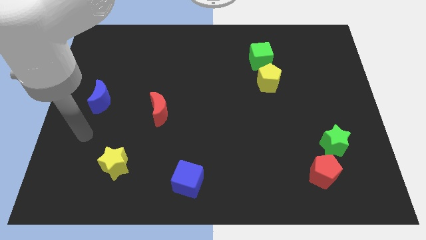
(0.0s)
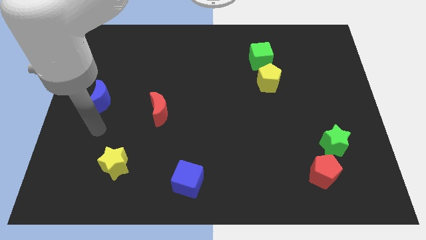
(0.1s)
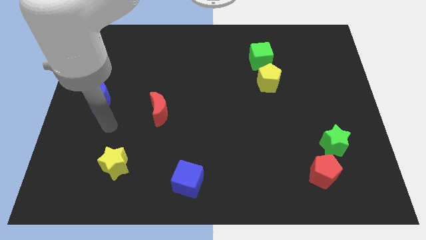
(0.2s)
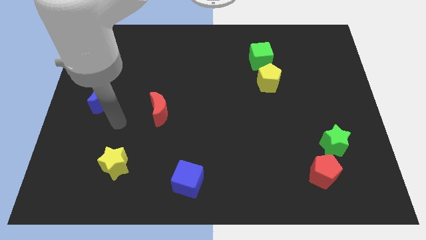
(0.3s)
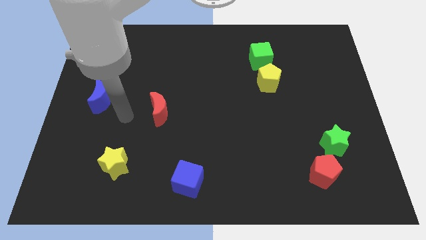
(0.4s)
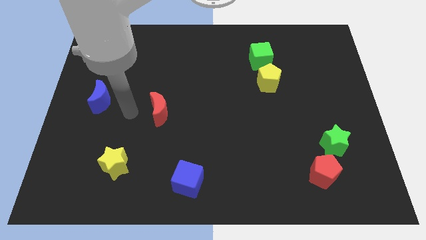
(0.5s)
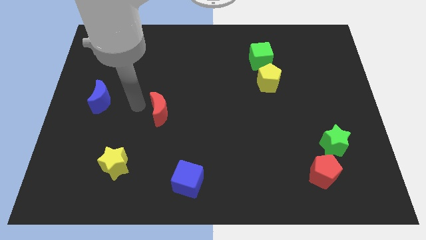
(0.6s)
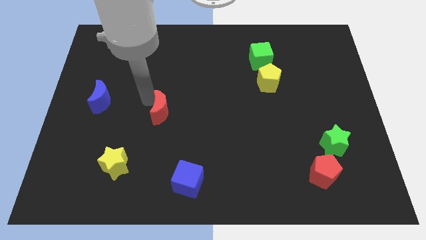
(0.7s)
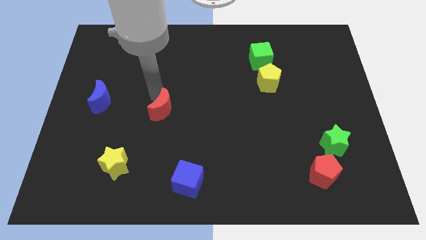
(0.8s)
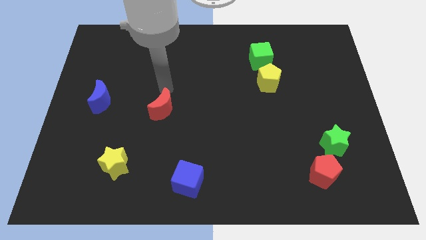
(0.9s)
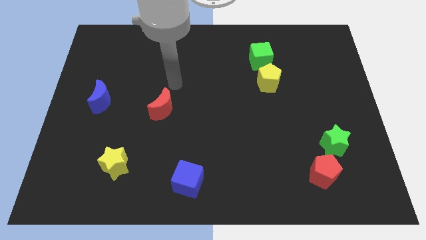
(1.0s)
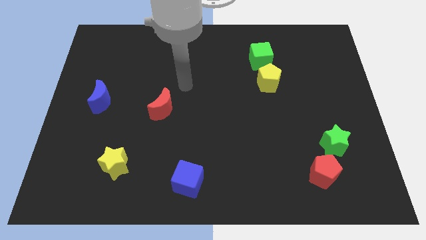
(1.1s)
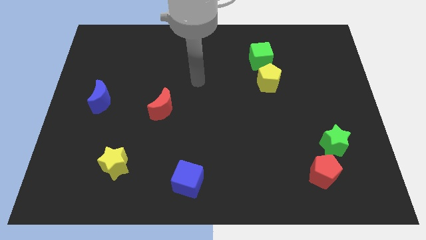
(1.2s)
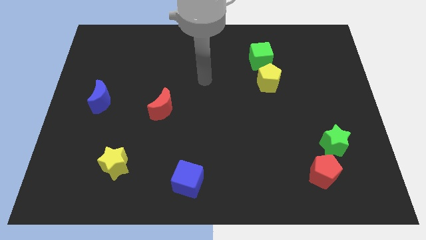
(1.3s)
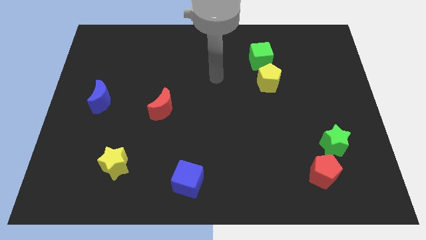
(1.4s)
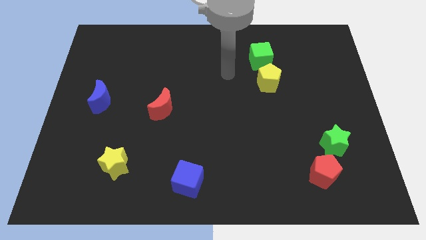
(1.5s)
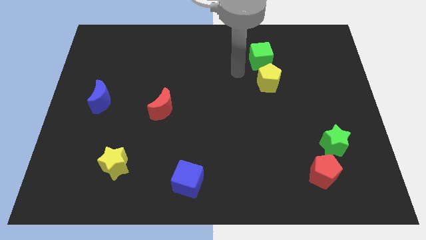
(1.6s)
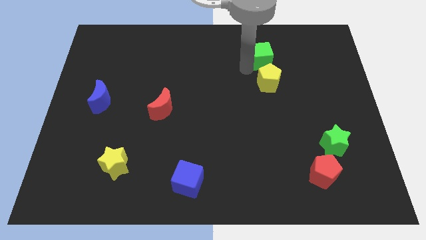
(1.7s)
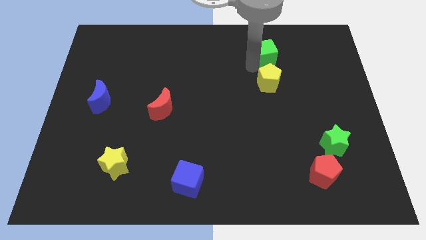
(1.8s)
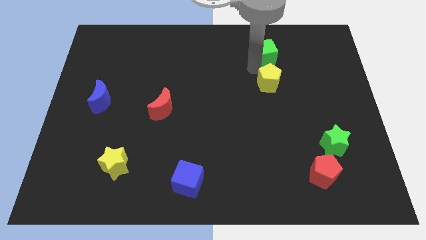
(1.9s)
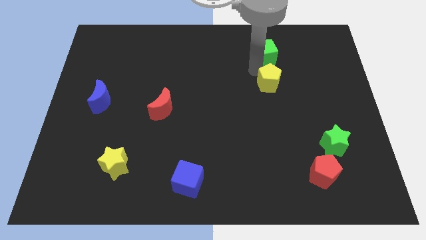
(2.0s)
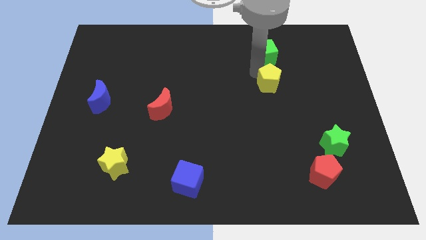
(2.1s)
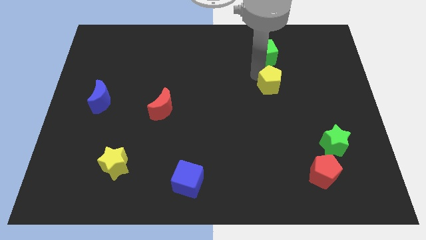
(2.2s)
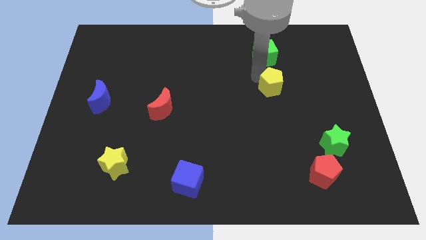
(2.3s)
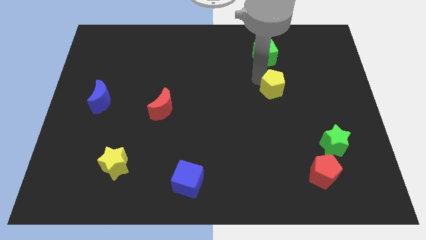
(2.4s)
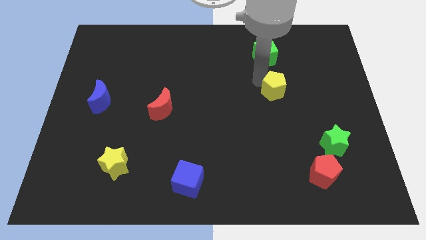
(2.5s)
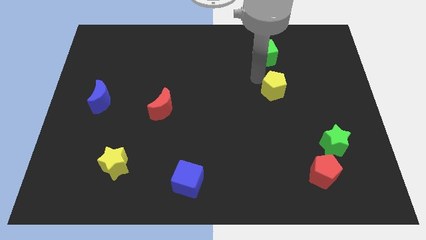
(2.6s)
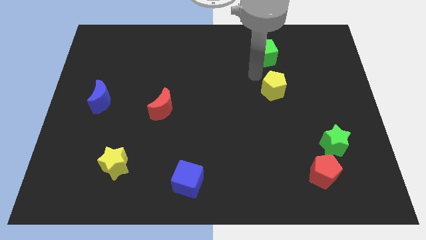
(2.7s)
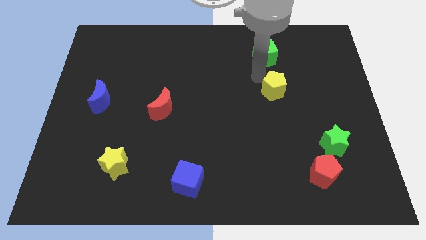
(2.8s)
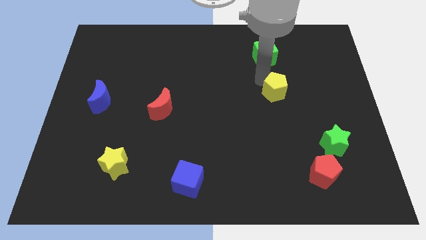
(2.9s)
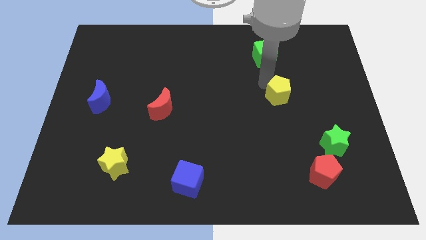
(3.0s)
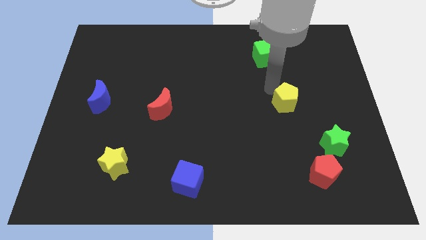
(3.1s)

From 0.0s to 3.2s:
move the yellow pentagon a little bit down and to the right diagonally

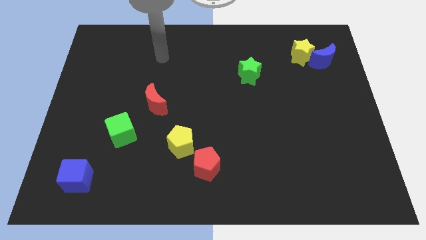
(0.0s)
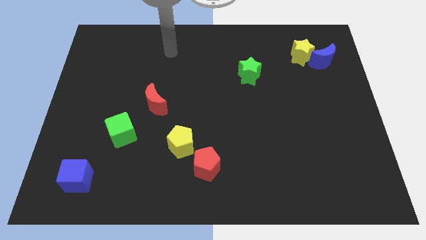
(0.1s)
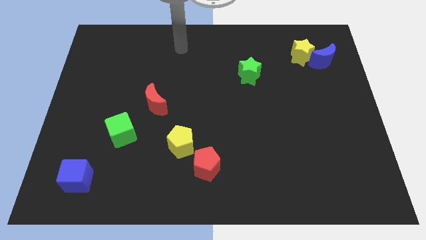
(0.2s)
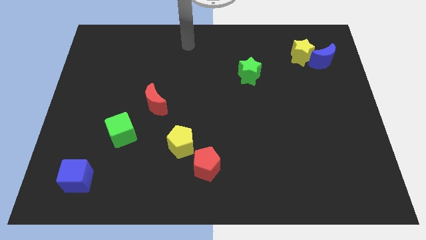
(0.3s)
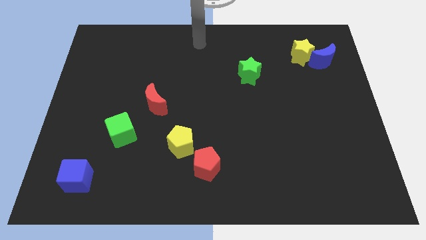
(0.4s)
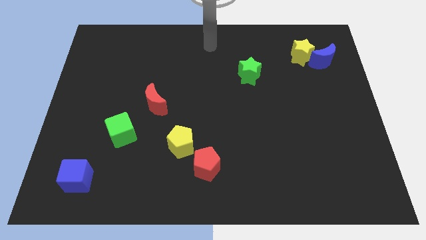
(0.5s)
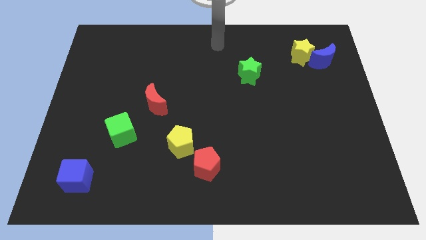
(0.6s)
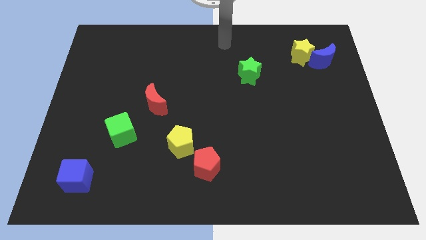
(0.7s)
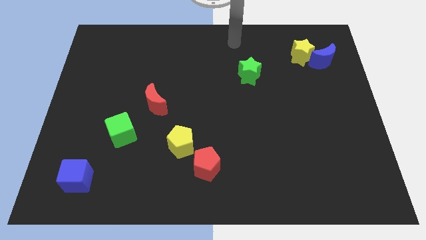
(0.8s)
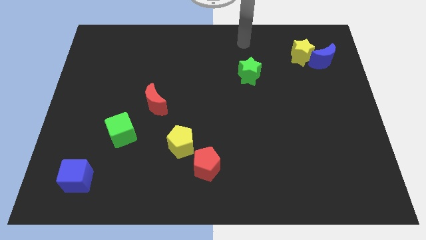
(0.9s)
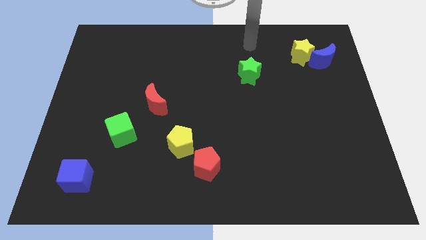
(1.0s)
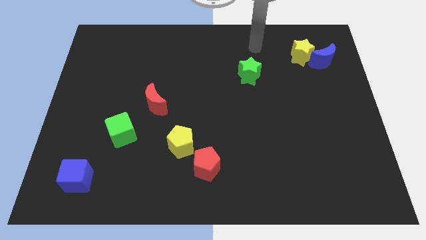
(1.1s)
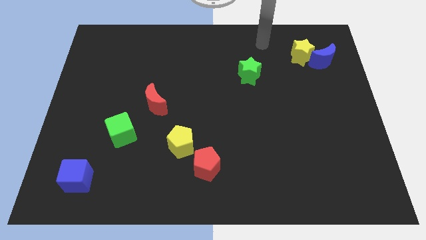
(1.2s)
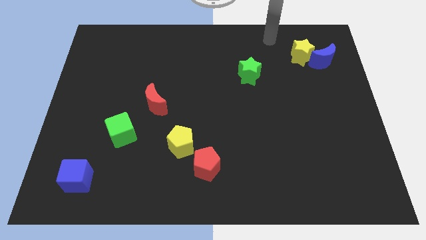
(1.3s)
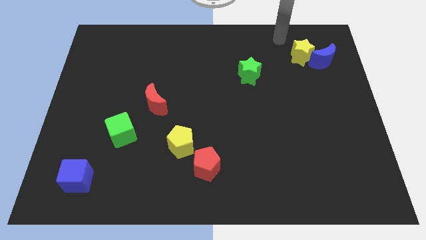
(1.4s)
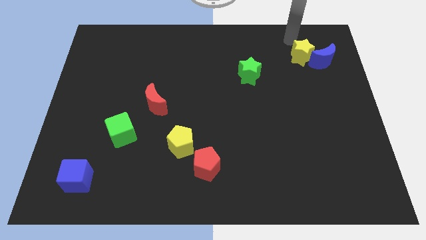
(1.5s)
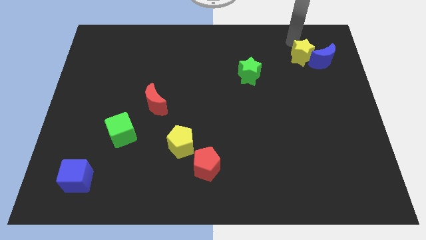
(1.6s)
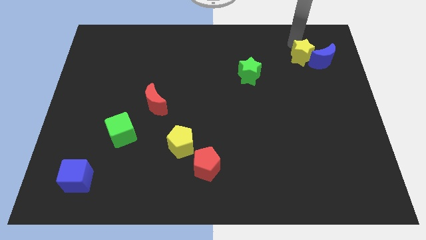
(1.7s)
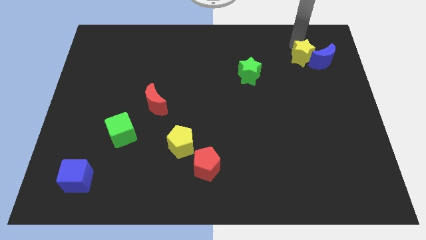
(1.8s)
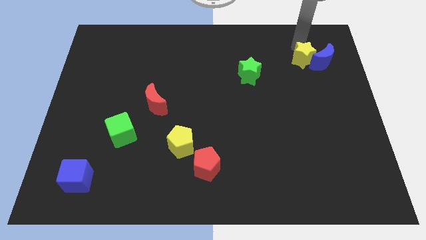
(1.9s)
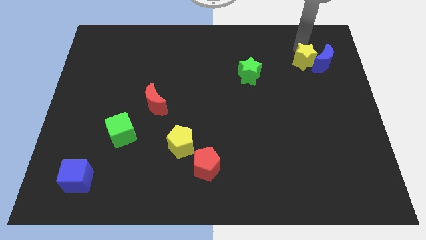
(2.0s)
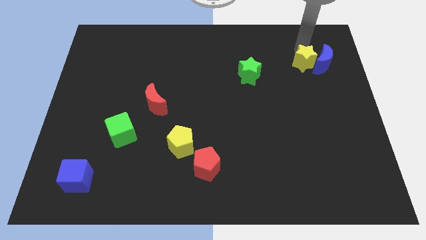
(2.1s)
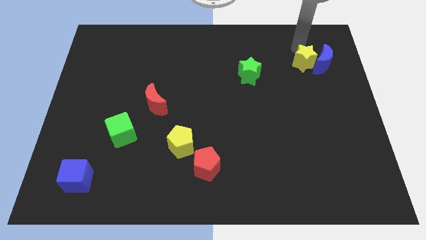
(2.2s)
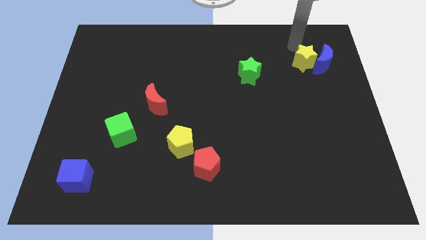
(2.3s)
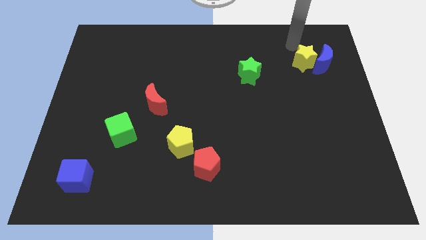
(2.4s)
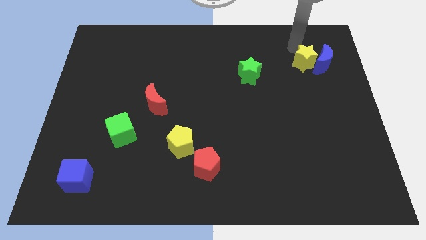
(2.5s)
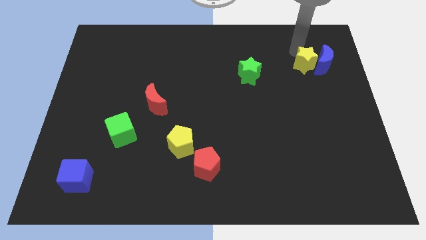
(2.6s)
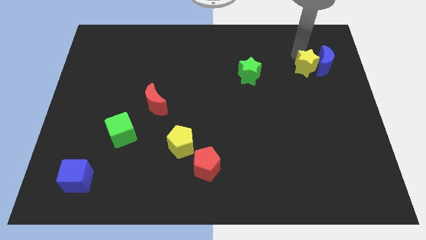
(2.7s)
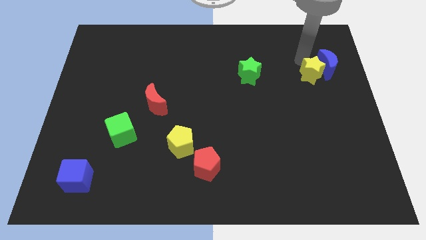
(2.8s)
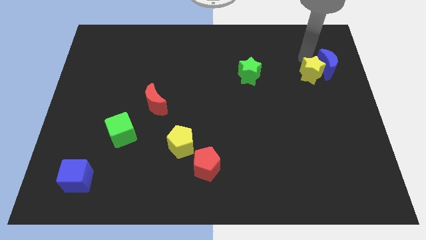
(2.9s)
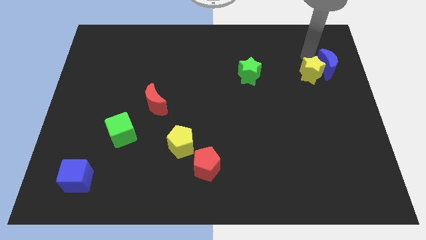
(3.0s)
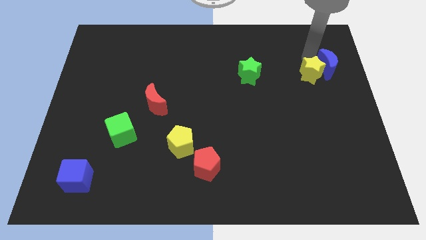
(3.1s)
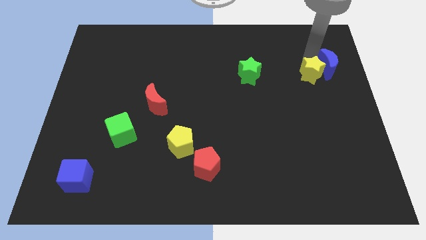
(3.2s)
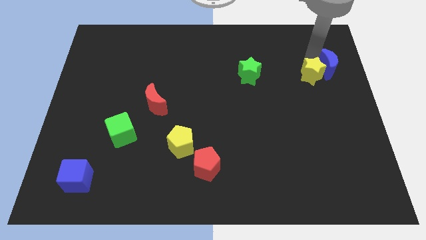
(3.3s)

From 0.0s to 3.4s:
slide the yellow star down somewhat

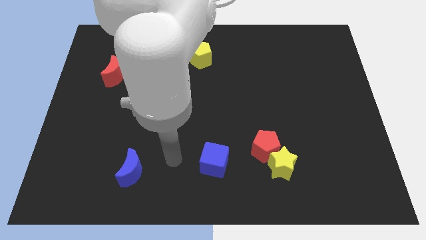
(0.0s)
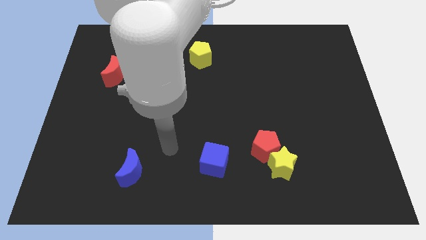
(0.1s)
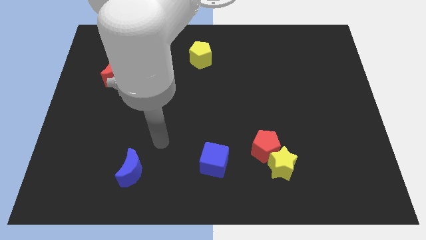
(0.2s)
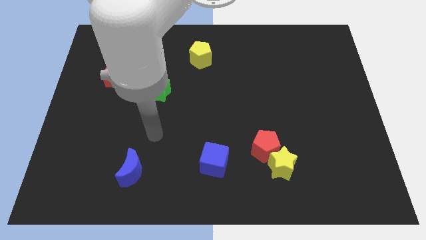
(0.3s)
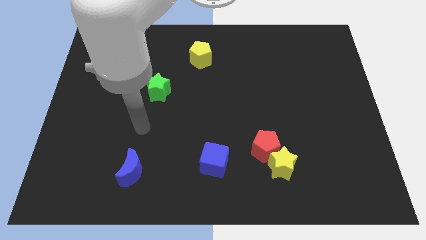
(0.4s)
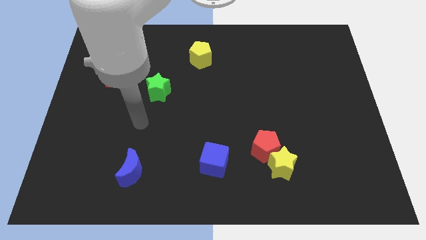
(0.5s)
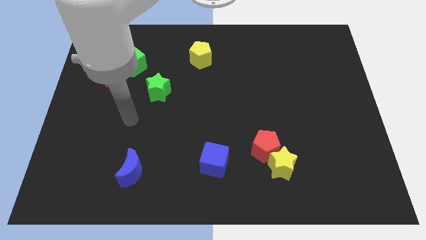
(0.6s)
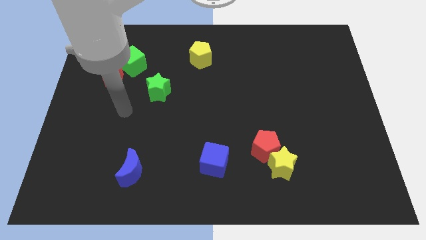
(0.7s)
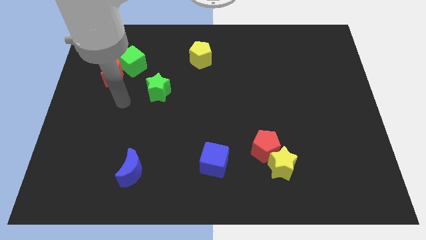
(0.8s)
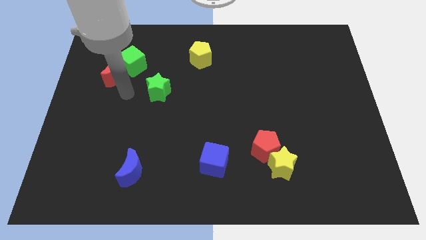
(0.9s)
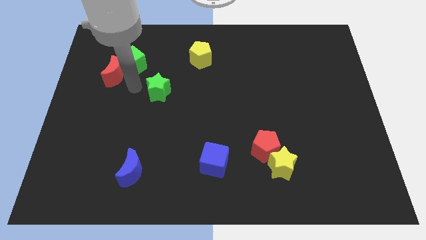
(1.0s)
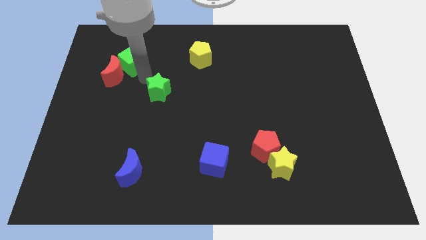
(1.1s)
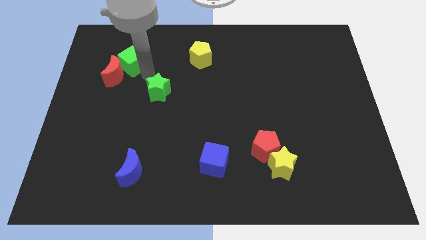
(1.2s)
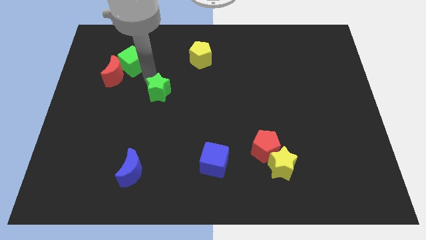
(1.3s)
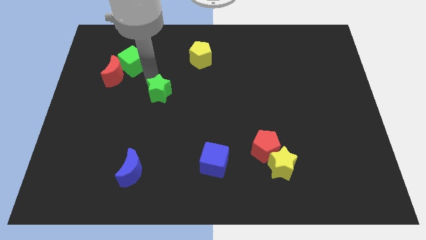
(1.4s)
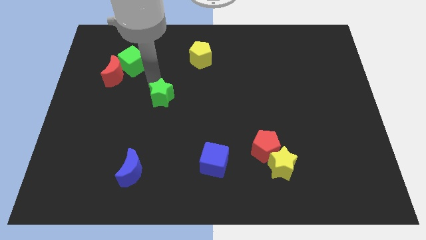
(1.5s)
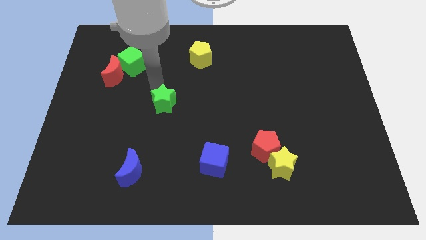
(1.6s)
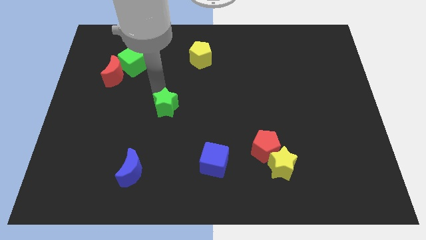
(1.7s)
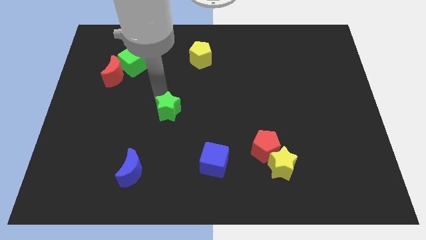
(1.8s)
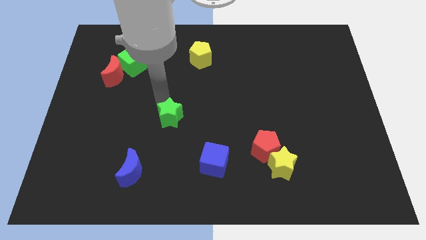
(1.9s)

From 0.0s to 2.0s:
slide the green star a little bit downwards and to the right
